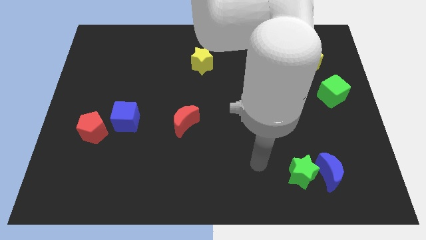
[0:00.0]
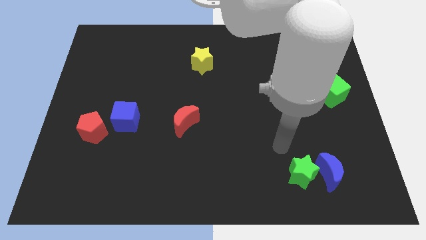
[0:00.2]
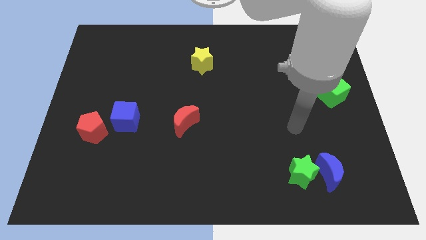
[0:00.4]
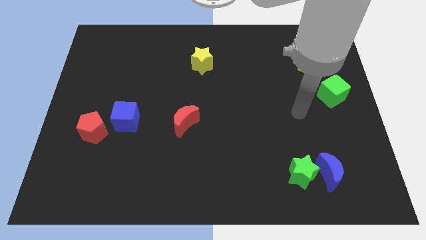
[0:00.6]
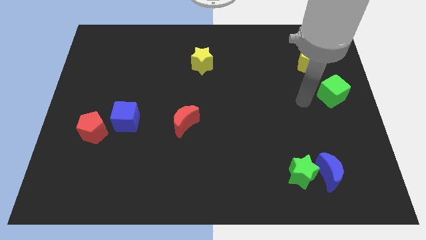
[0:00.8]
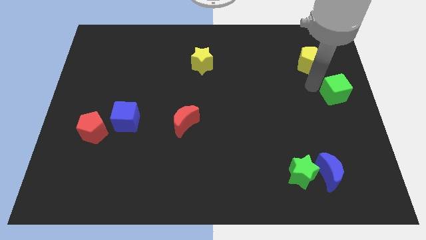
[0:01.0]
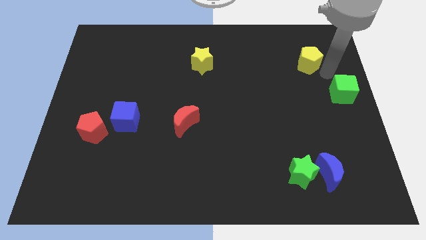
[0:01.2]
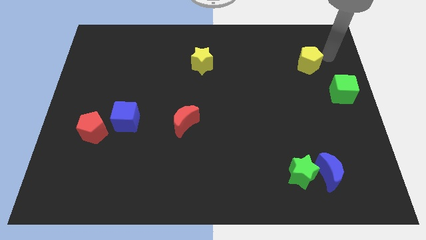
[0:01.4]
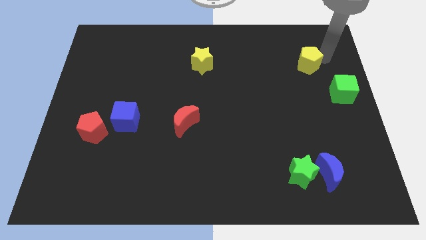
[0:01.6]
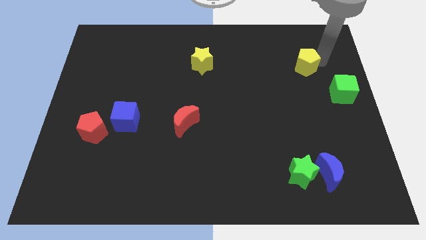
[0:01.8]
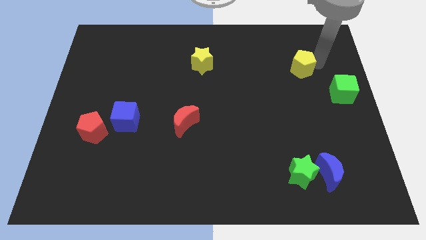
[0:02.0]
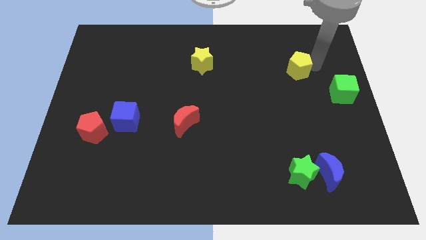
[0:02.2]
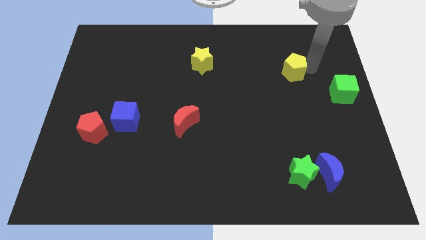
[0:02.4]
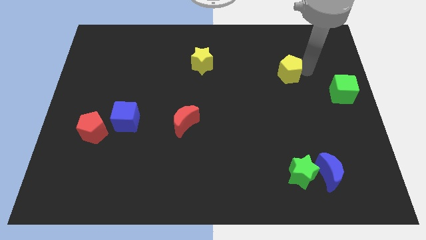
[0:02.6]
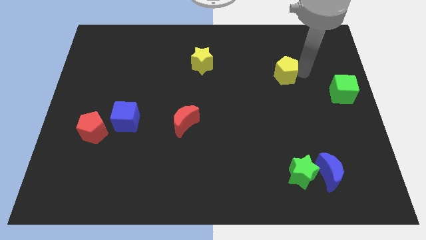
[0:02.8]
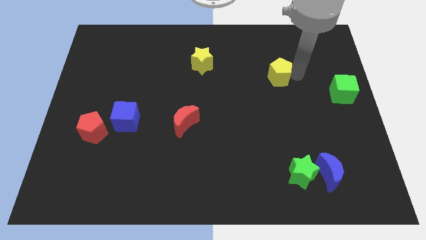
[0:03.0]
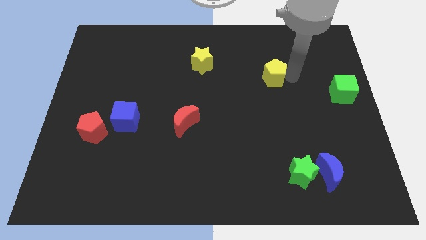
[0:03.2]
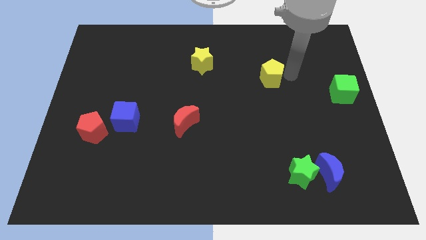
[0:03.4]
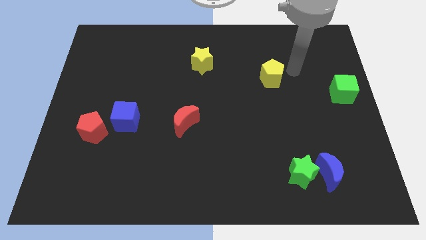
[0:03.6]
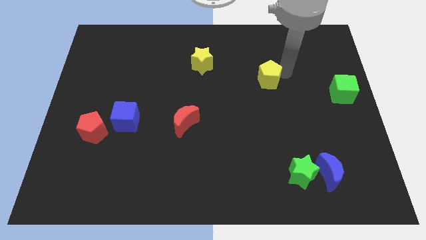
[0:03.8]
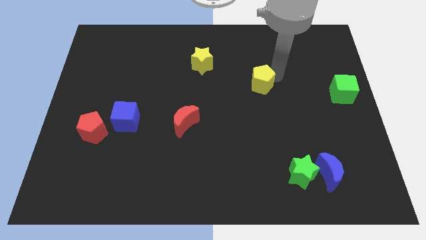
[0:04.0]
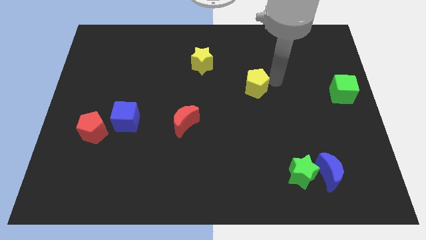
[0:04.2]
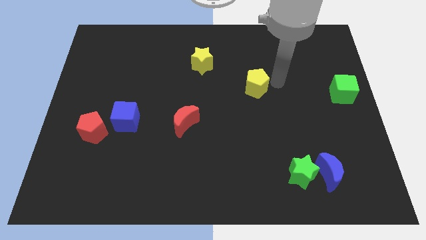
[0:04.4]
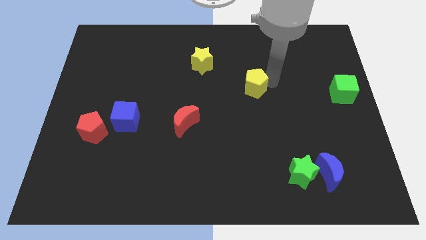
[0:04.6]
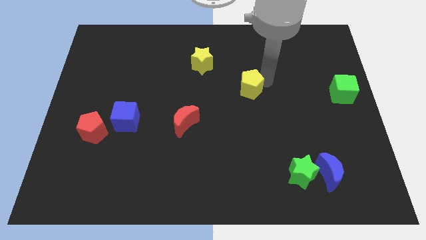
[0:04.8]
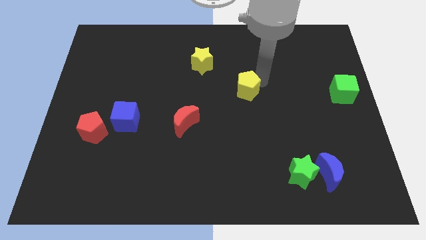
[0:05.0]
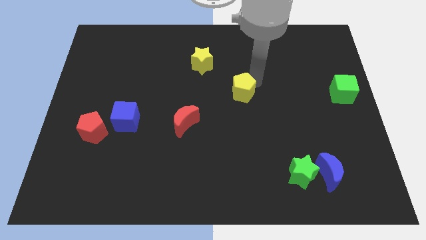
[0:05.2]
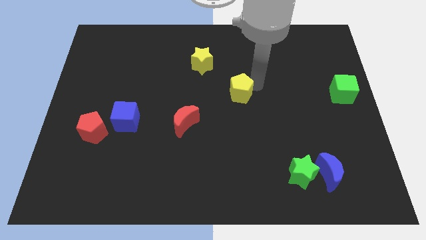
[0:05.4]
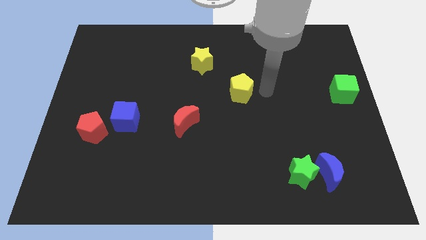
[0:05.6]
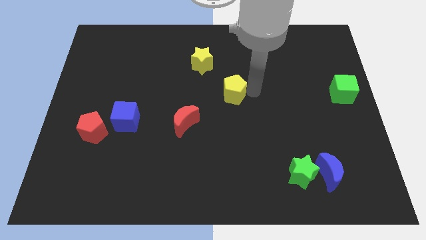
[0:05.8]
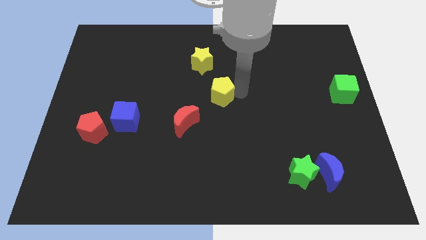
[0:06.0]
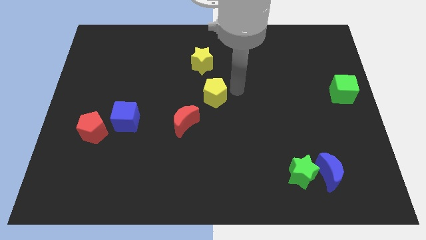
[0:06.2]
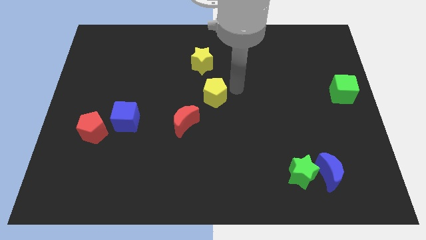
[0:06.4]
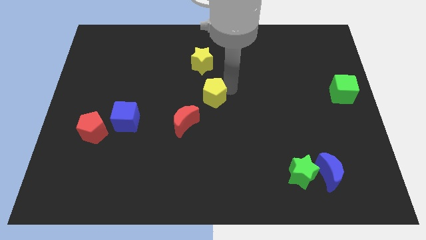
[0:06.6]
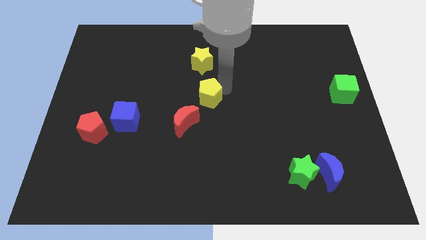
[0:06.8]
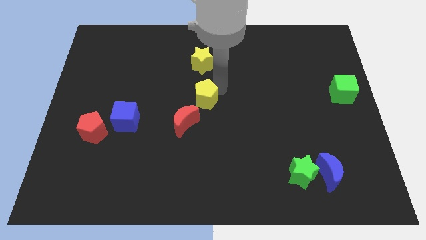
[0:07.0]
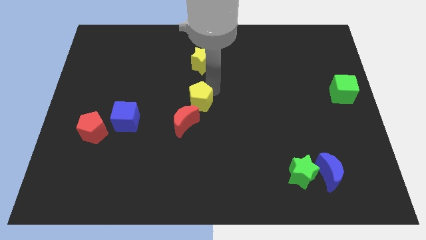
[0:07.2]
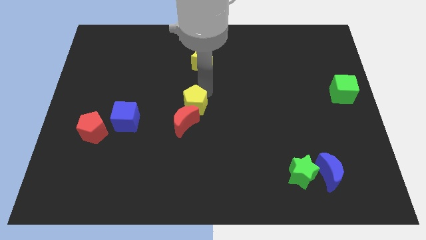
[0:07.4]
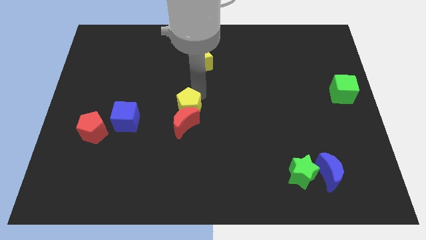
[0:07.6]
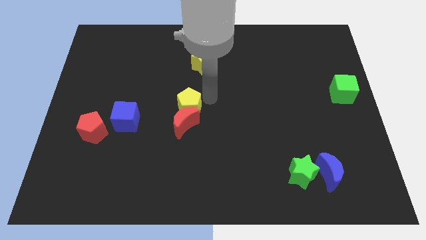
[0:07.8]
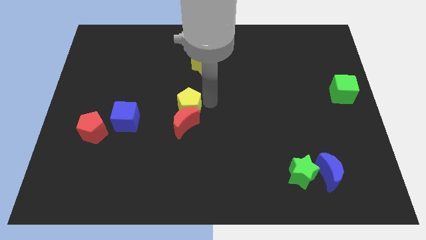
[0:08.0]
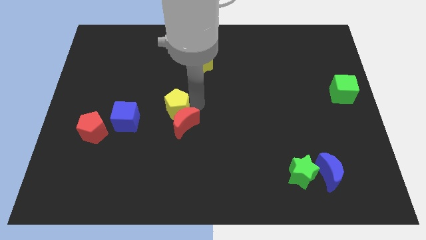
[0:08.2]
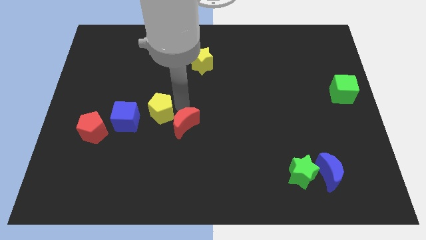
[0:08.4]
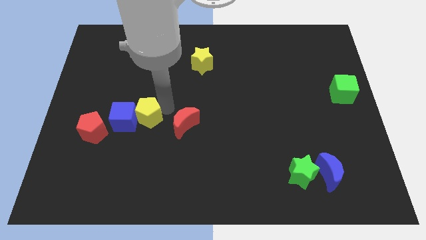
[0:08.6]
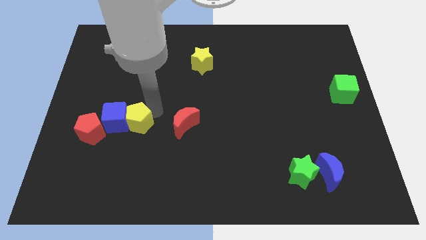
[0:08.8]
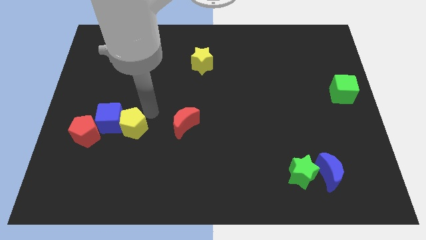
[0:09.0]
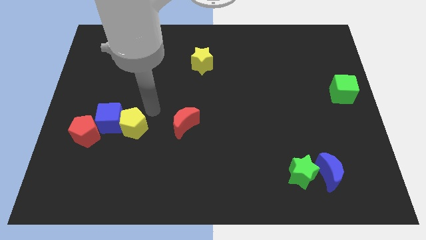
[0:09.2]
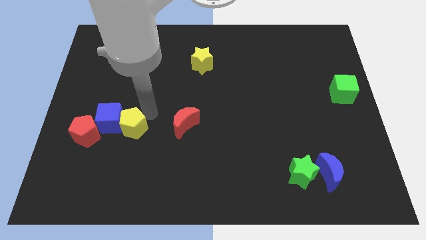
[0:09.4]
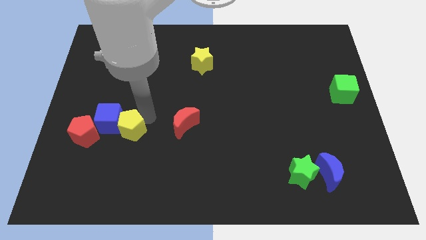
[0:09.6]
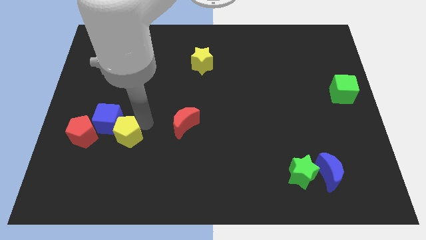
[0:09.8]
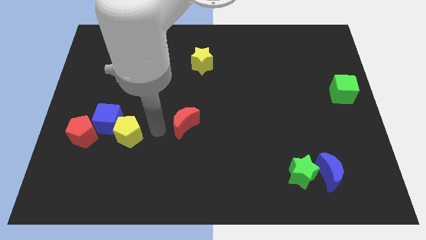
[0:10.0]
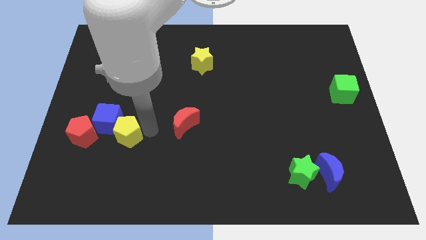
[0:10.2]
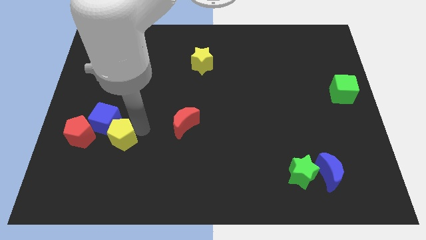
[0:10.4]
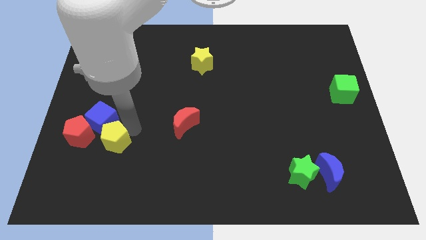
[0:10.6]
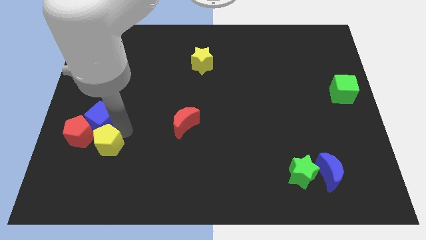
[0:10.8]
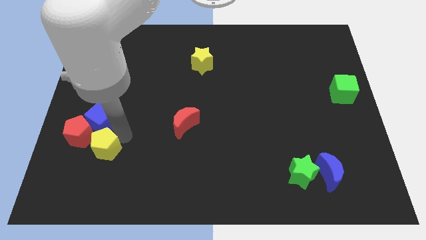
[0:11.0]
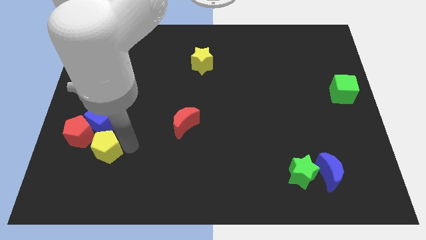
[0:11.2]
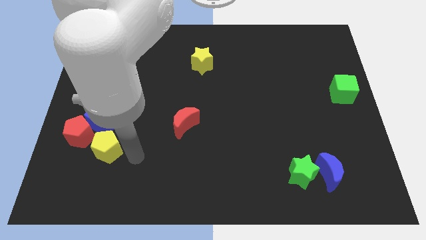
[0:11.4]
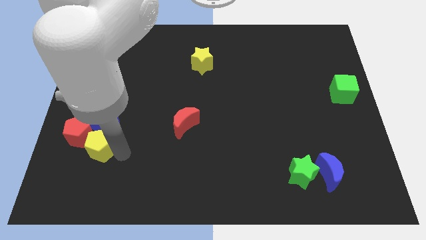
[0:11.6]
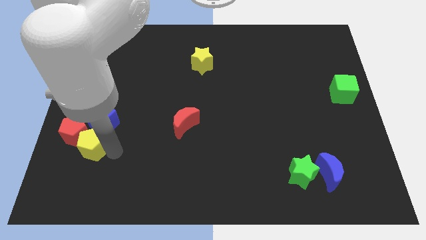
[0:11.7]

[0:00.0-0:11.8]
slide the yellow pentagon to the bottom left of the blue cube

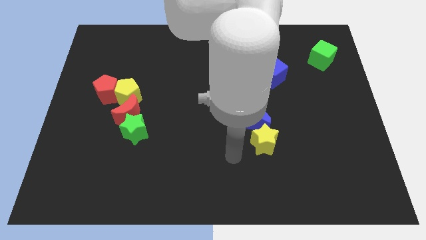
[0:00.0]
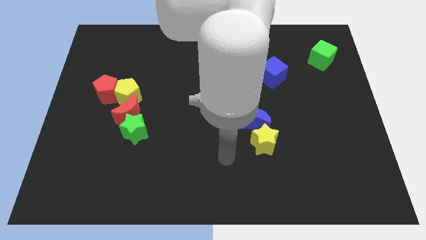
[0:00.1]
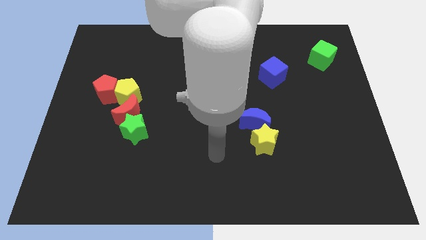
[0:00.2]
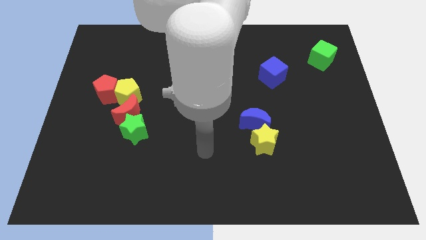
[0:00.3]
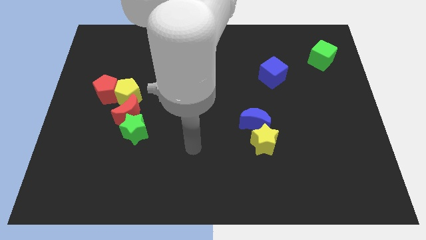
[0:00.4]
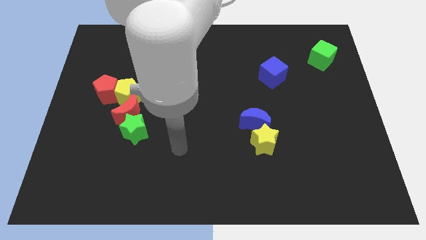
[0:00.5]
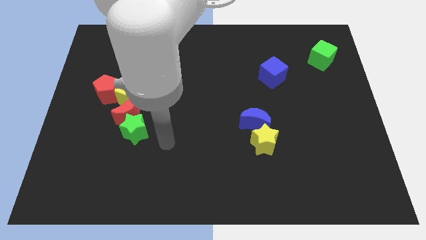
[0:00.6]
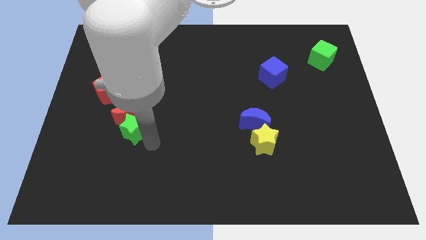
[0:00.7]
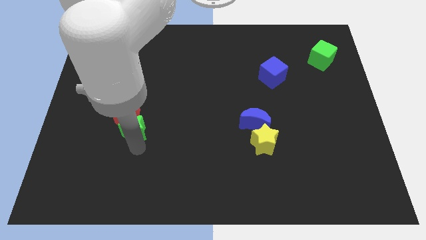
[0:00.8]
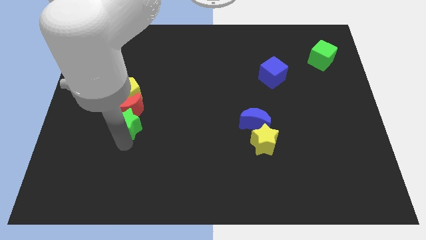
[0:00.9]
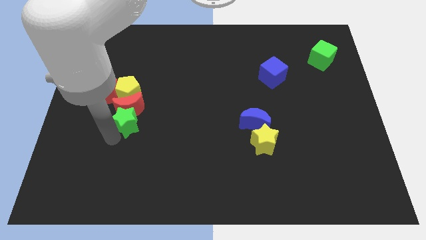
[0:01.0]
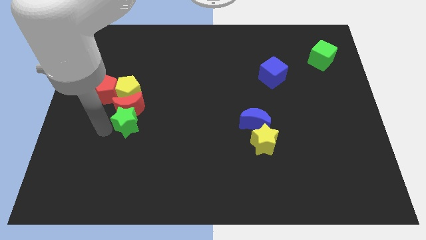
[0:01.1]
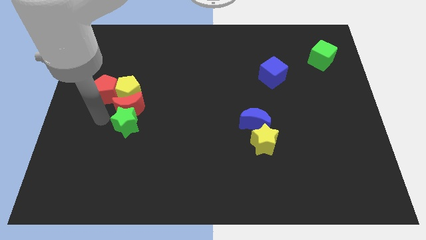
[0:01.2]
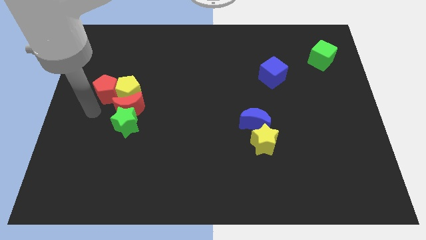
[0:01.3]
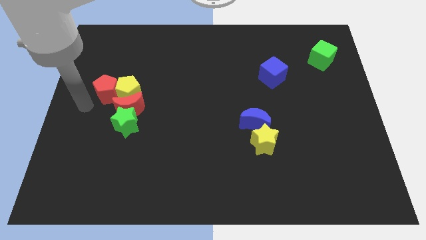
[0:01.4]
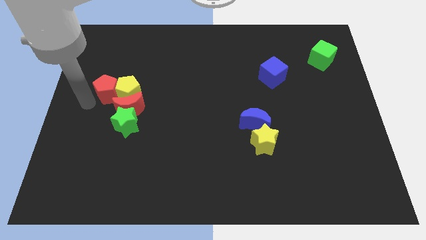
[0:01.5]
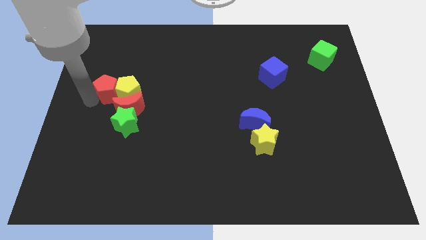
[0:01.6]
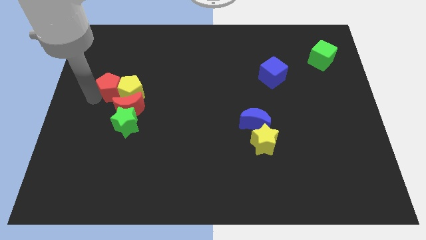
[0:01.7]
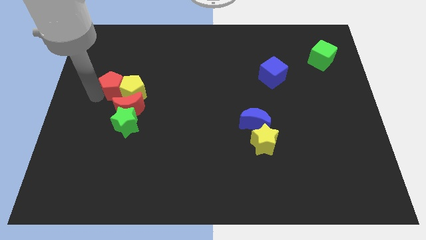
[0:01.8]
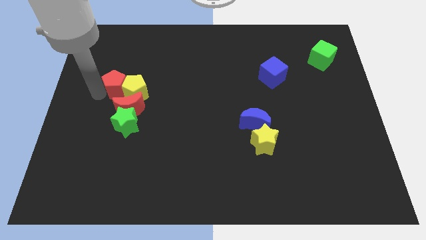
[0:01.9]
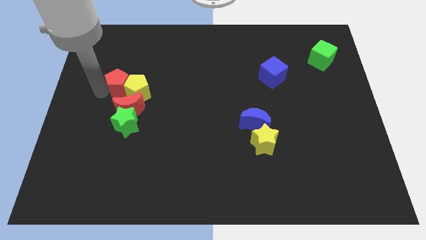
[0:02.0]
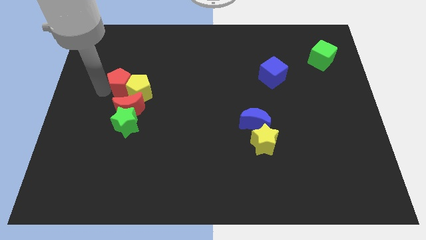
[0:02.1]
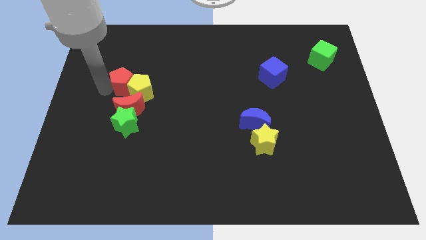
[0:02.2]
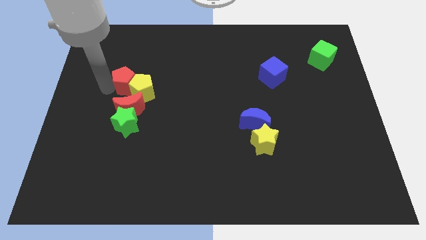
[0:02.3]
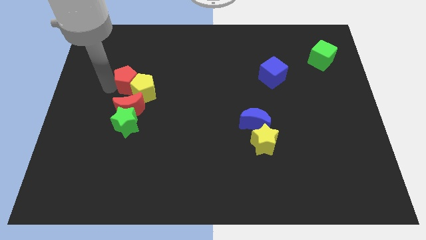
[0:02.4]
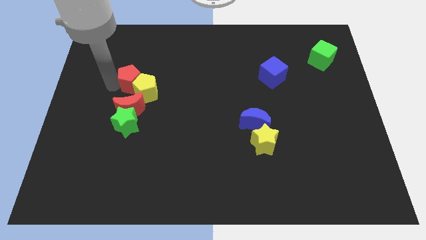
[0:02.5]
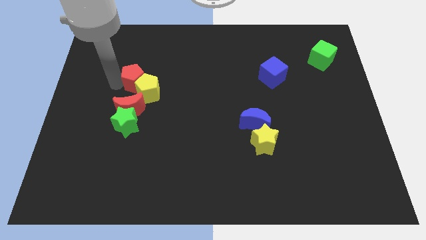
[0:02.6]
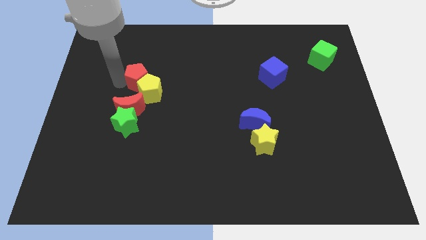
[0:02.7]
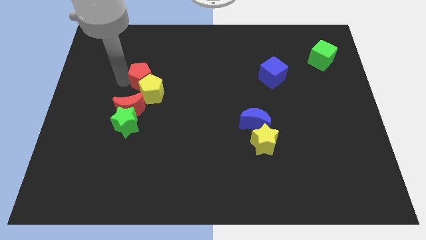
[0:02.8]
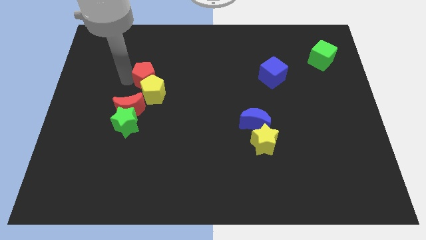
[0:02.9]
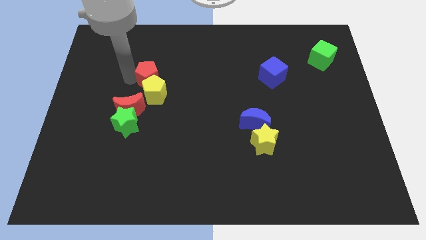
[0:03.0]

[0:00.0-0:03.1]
put the red pentagon to the top right side of the yellow pentagon
